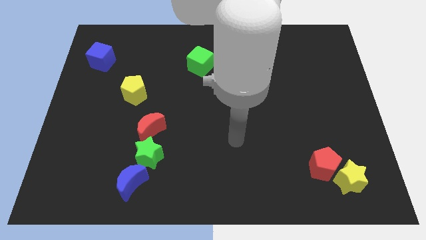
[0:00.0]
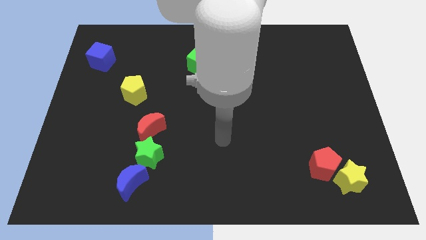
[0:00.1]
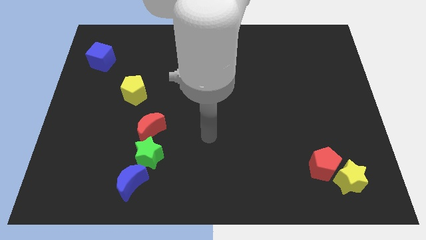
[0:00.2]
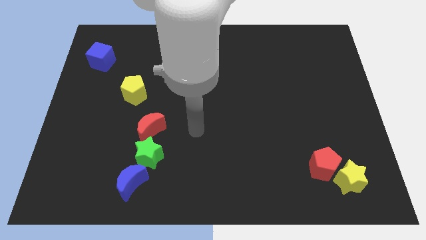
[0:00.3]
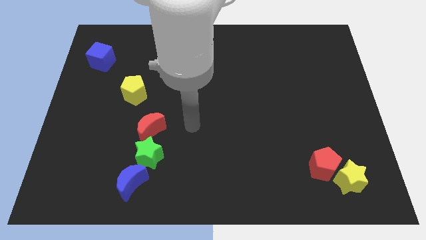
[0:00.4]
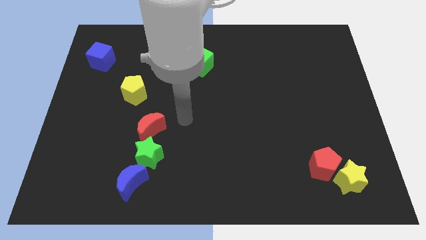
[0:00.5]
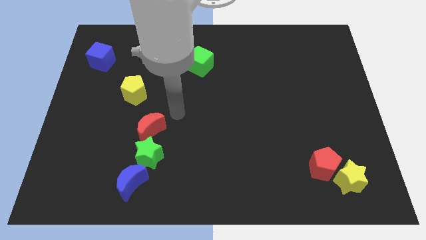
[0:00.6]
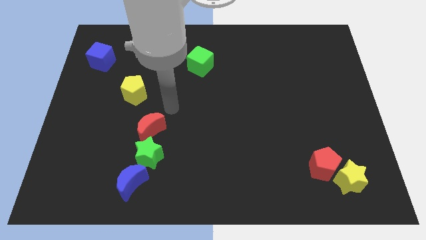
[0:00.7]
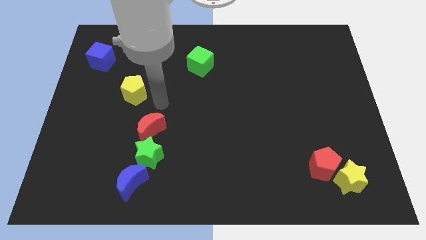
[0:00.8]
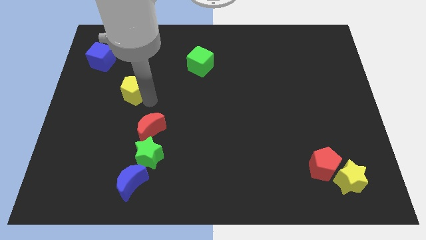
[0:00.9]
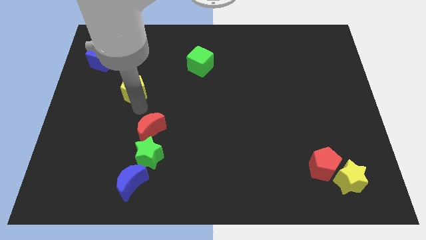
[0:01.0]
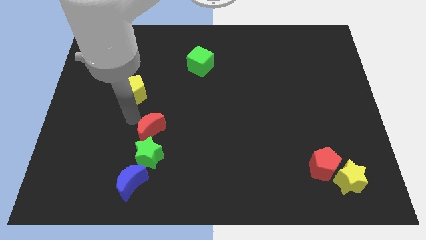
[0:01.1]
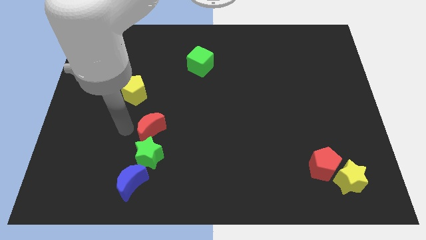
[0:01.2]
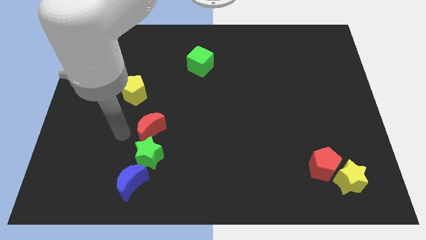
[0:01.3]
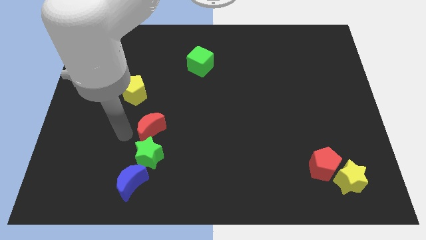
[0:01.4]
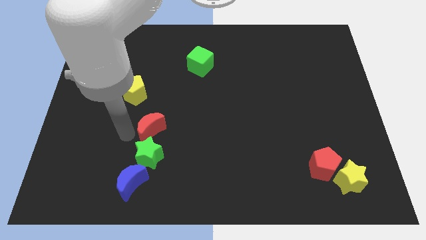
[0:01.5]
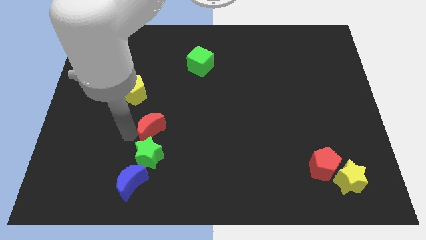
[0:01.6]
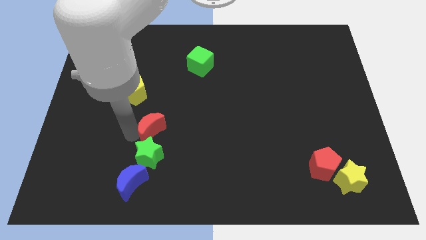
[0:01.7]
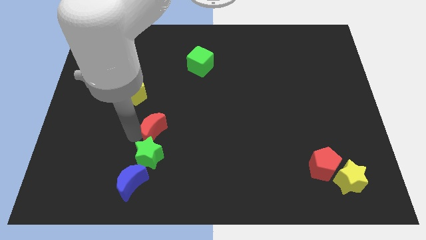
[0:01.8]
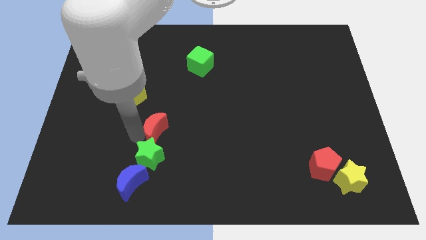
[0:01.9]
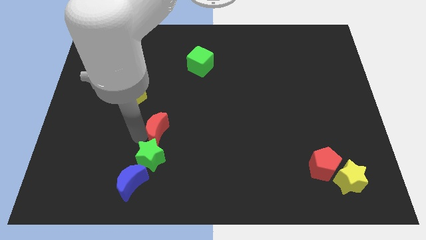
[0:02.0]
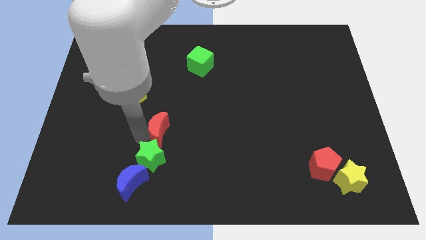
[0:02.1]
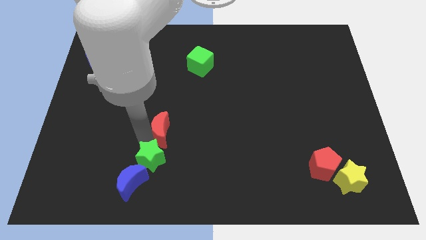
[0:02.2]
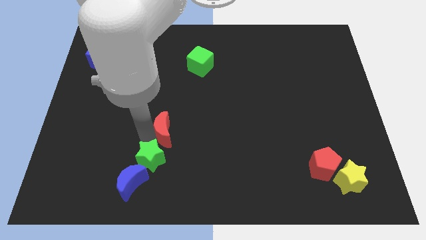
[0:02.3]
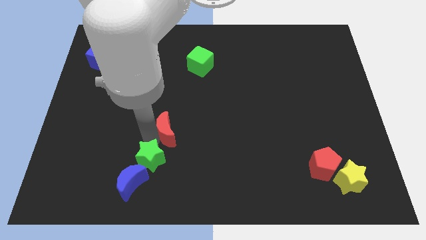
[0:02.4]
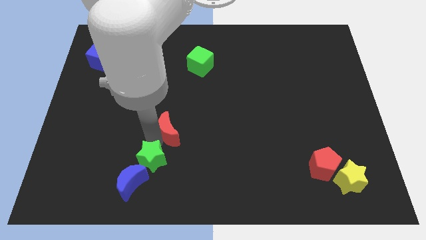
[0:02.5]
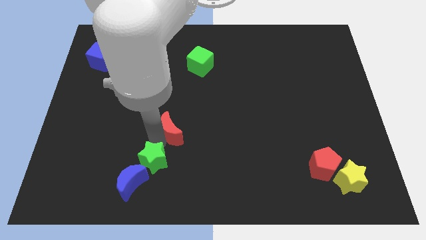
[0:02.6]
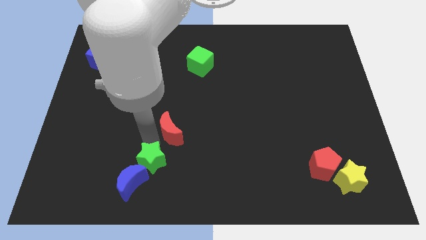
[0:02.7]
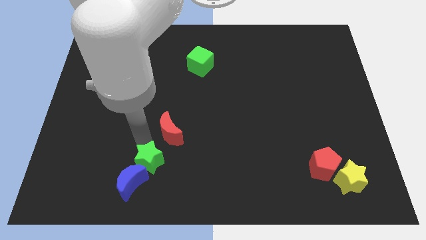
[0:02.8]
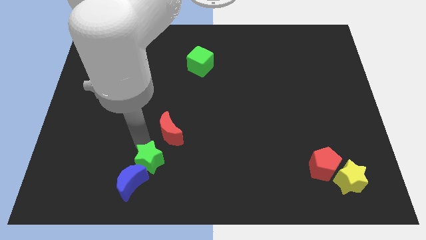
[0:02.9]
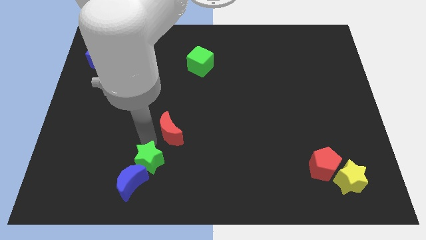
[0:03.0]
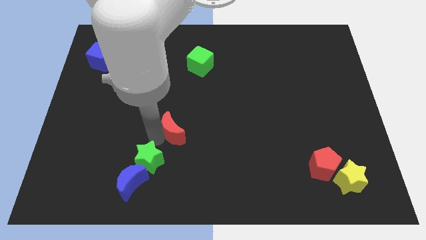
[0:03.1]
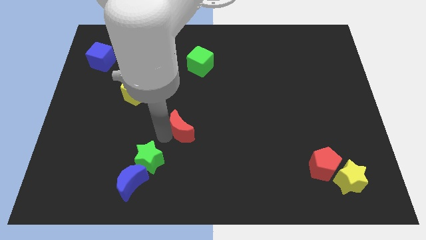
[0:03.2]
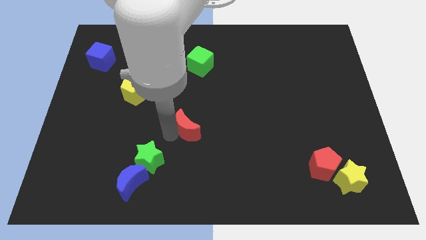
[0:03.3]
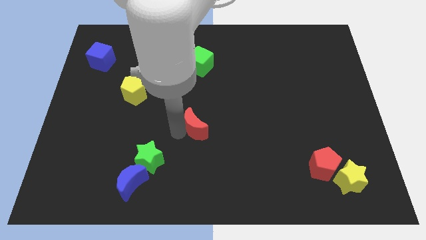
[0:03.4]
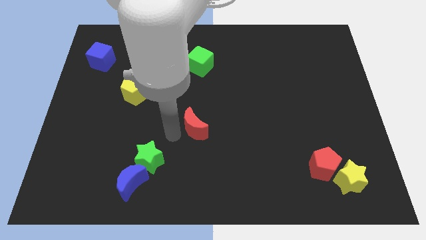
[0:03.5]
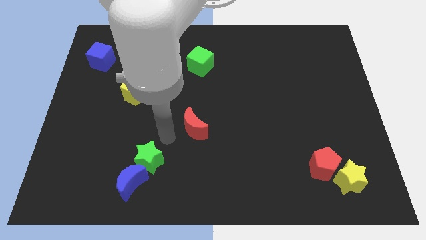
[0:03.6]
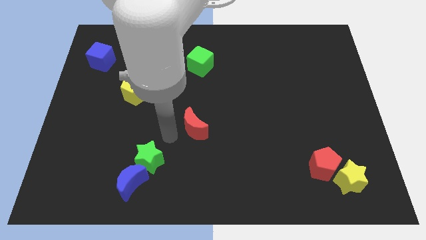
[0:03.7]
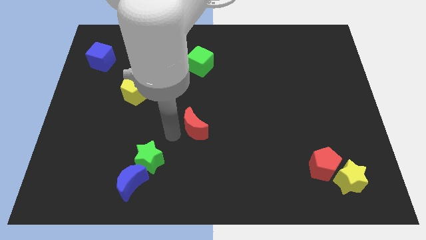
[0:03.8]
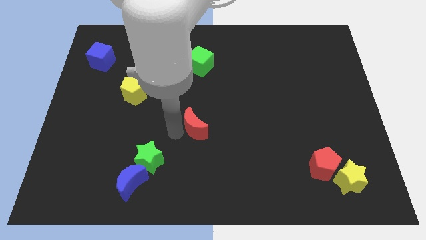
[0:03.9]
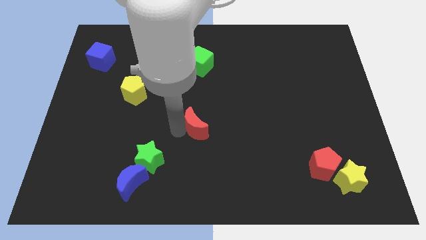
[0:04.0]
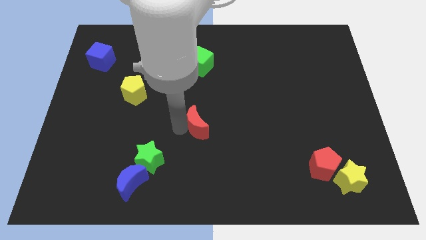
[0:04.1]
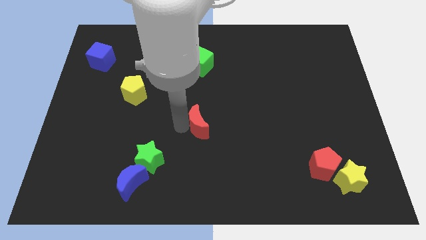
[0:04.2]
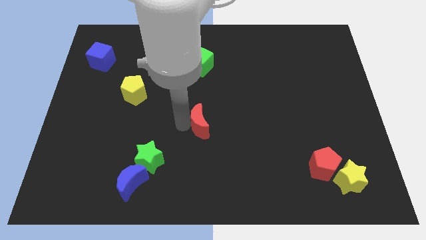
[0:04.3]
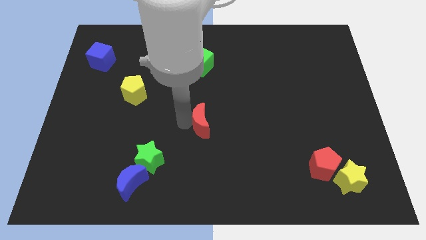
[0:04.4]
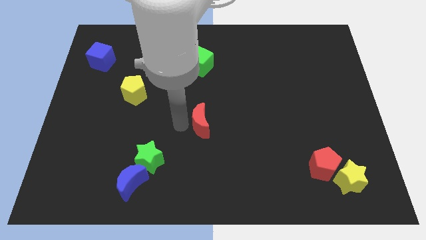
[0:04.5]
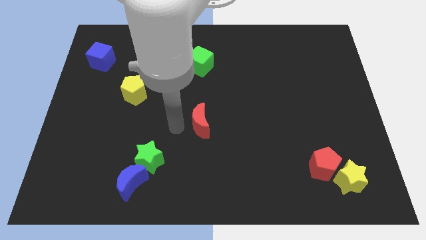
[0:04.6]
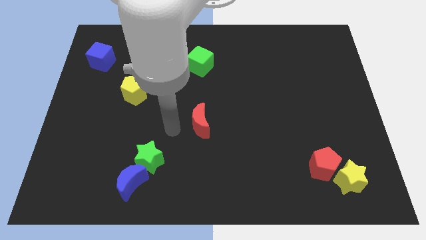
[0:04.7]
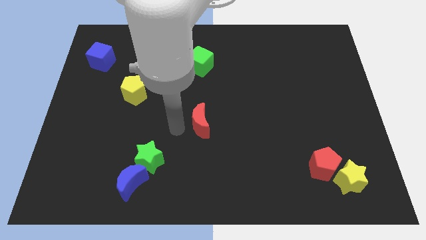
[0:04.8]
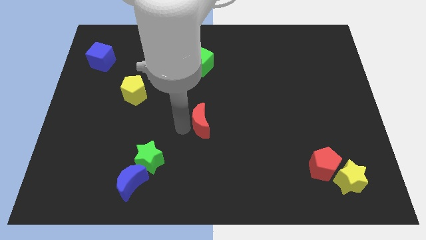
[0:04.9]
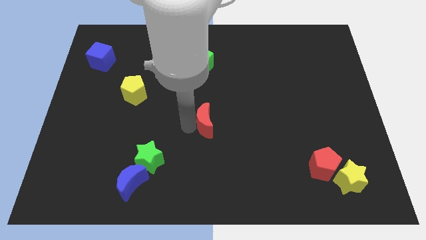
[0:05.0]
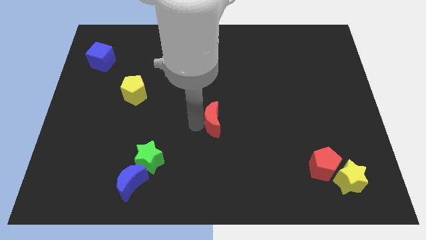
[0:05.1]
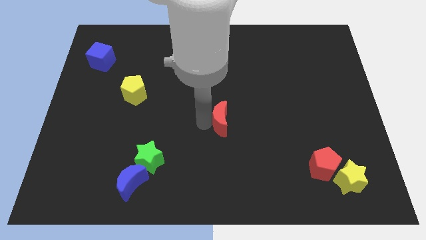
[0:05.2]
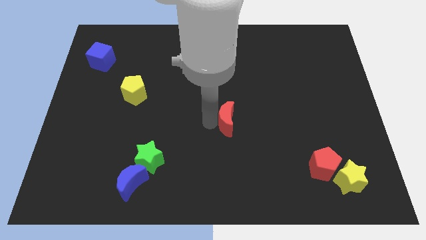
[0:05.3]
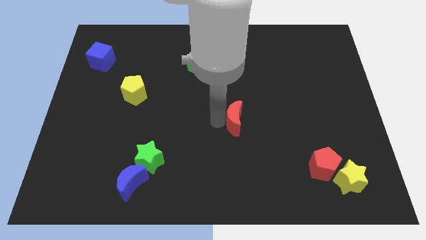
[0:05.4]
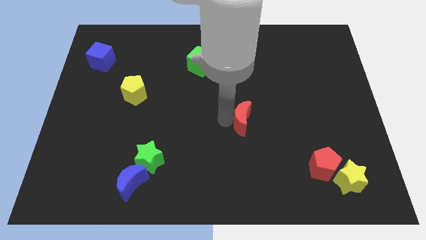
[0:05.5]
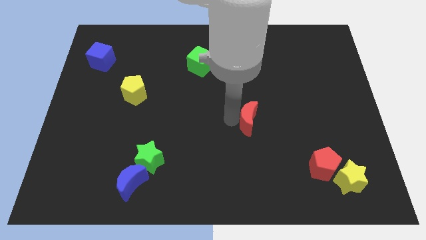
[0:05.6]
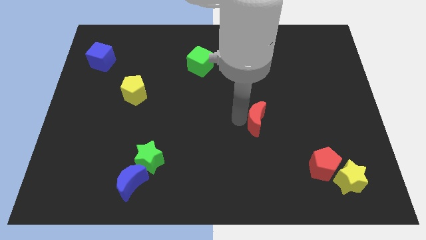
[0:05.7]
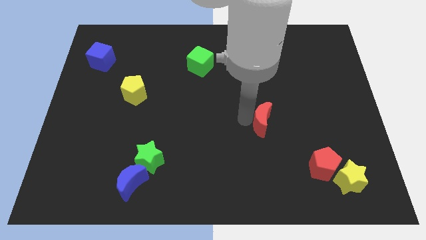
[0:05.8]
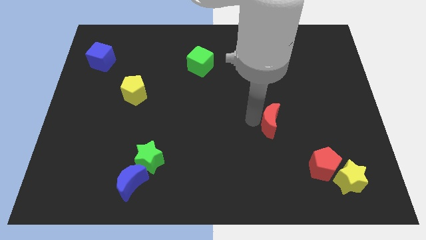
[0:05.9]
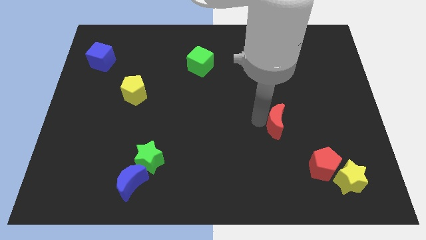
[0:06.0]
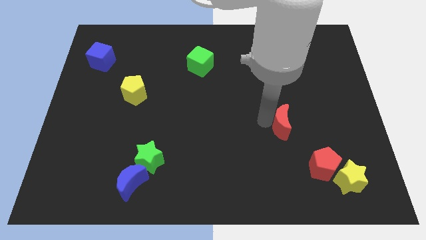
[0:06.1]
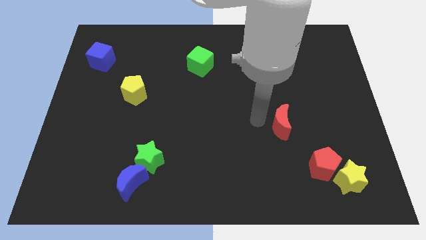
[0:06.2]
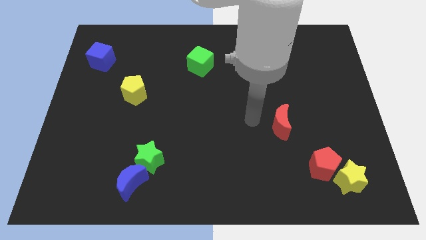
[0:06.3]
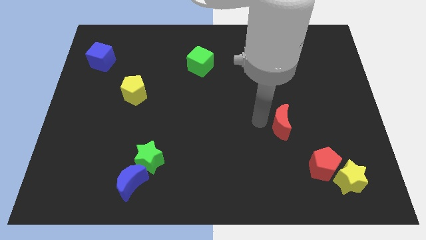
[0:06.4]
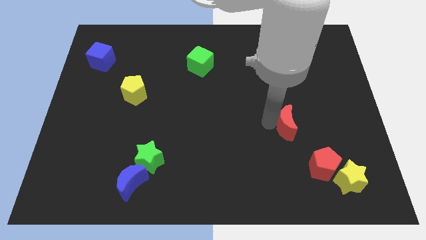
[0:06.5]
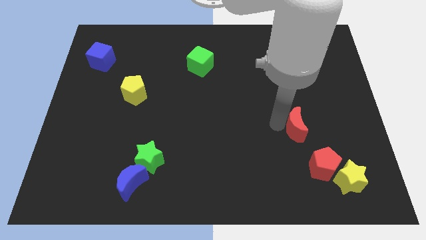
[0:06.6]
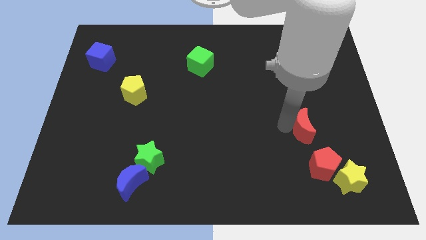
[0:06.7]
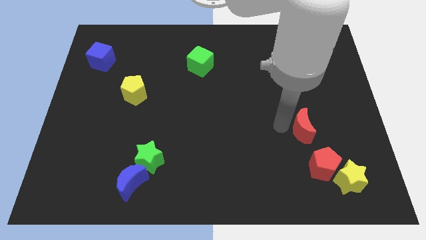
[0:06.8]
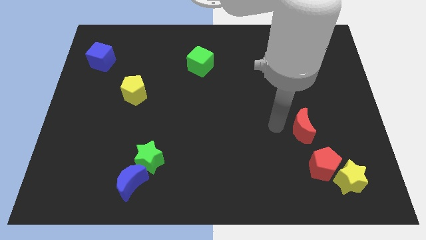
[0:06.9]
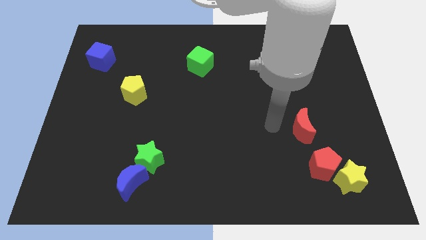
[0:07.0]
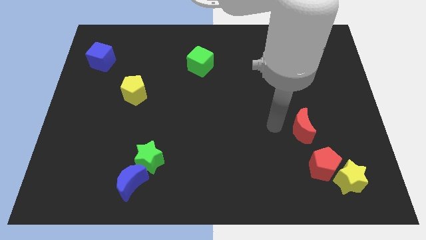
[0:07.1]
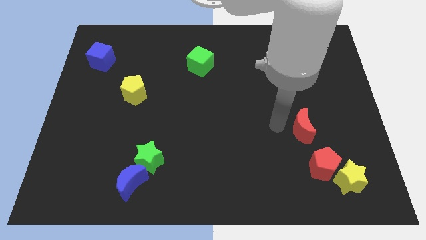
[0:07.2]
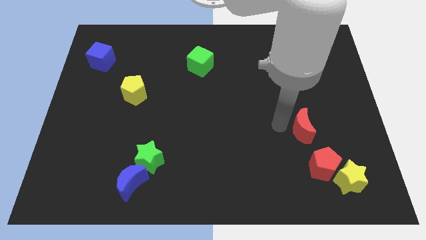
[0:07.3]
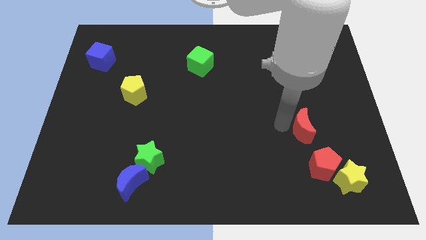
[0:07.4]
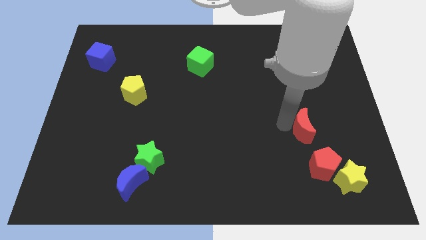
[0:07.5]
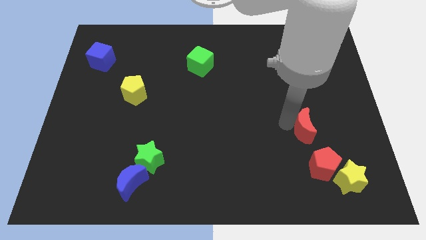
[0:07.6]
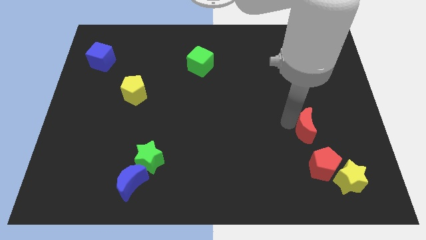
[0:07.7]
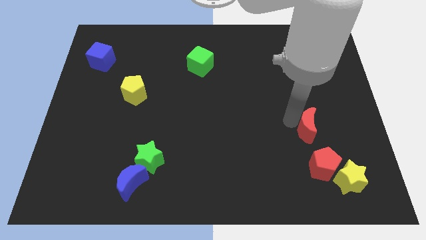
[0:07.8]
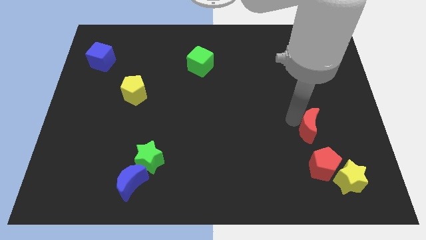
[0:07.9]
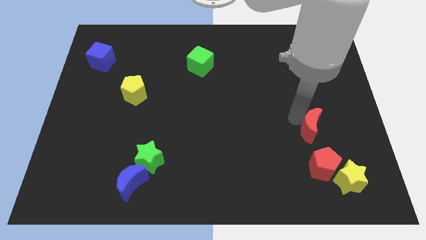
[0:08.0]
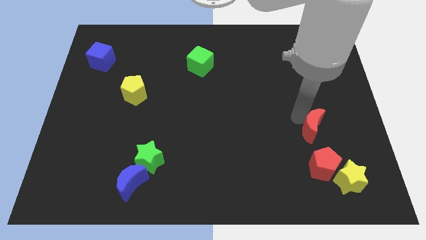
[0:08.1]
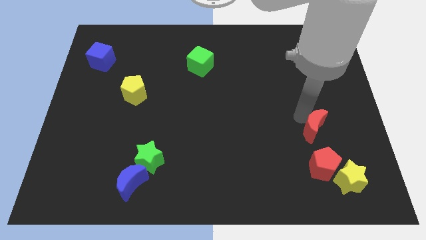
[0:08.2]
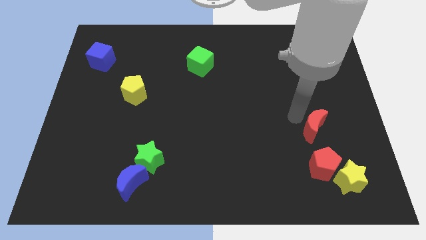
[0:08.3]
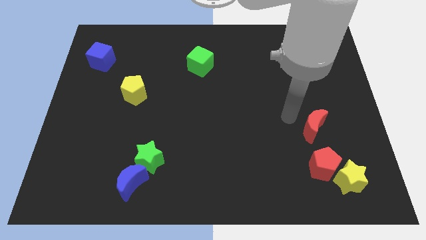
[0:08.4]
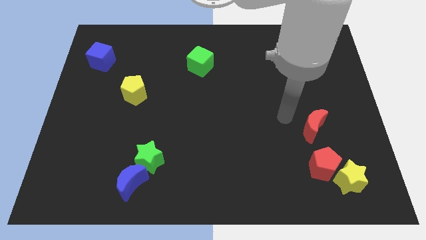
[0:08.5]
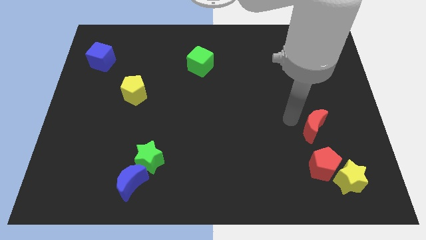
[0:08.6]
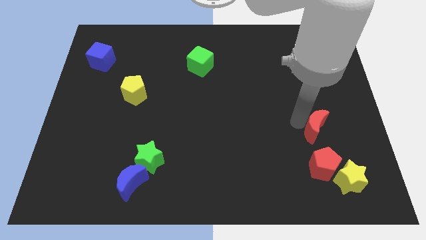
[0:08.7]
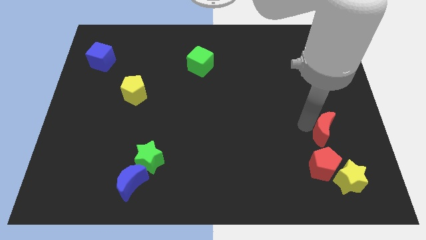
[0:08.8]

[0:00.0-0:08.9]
push the red moon to the top side of the yellow star
